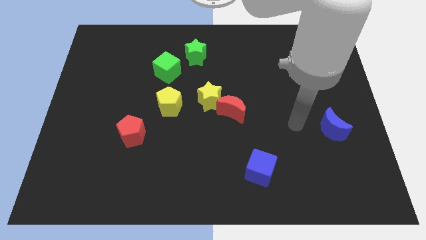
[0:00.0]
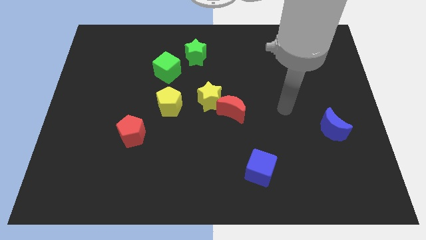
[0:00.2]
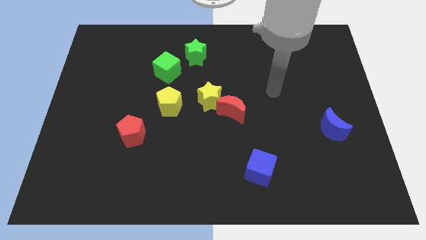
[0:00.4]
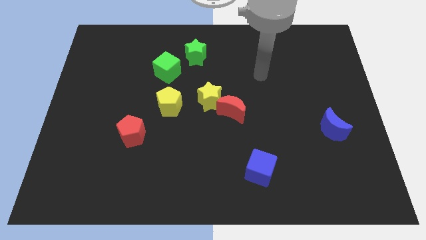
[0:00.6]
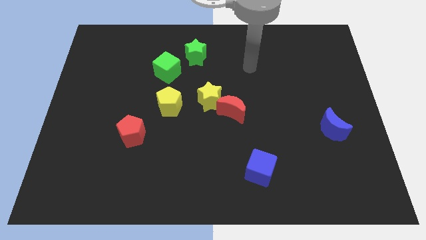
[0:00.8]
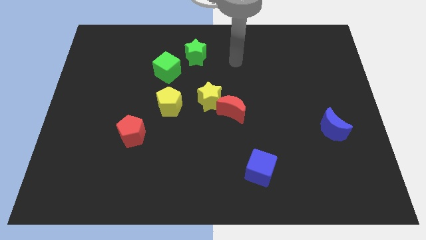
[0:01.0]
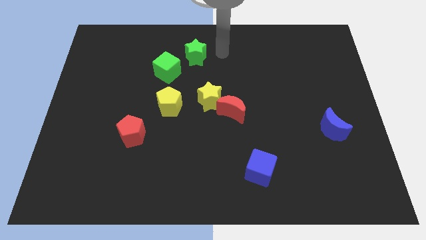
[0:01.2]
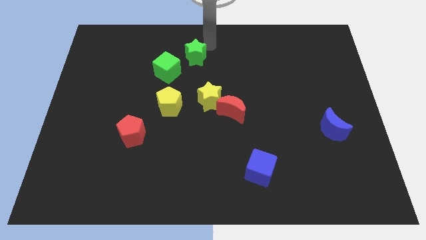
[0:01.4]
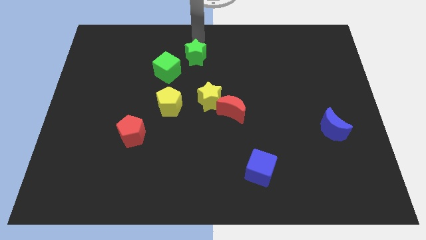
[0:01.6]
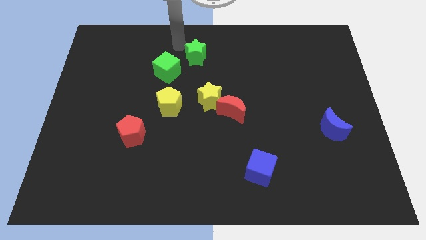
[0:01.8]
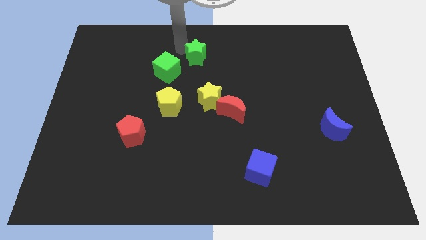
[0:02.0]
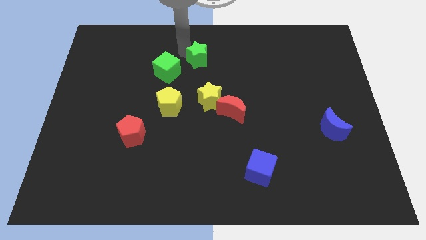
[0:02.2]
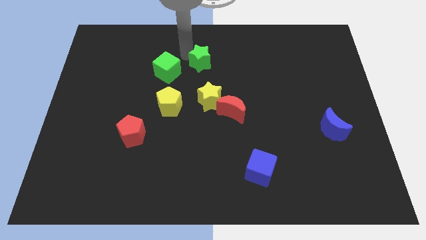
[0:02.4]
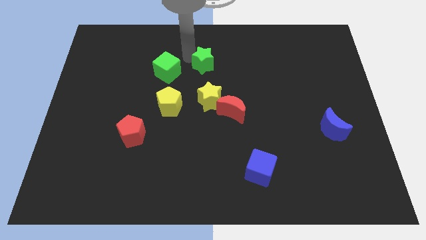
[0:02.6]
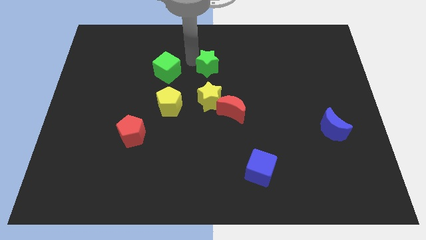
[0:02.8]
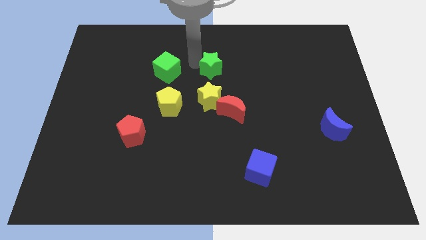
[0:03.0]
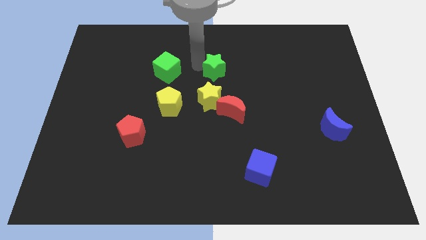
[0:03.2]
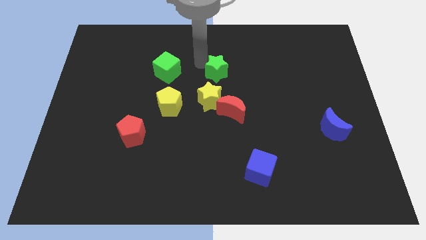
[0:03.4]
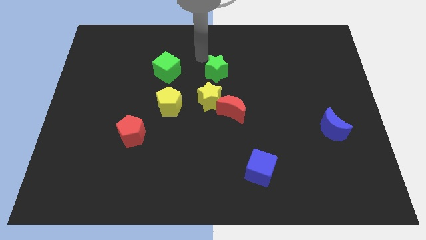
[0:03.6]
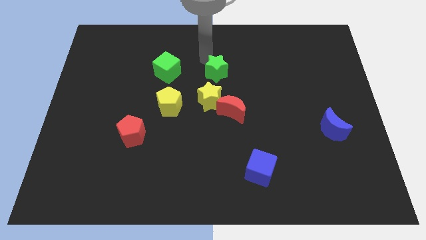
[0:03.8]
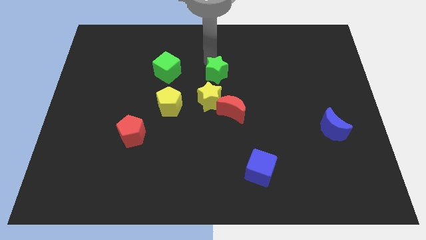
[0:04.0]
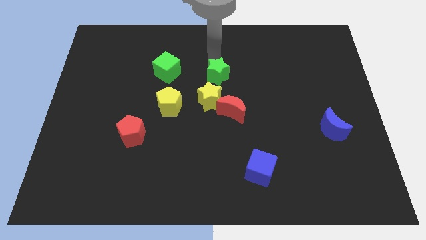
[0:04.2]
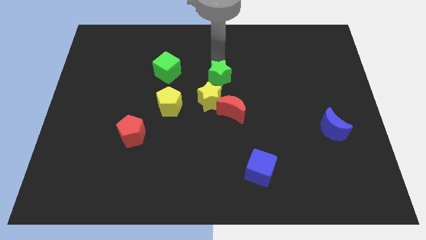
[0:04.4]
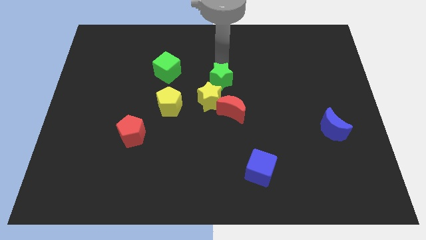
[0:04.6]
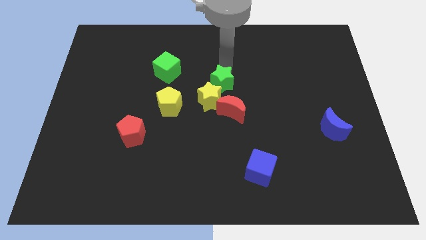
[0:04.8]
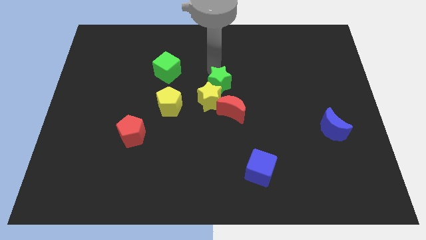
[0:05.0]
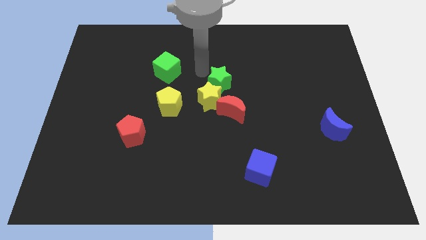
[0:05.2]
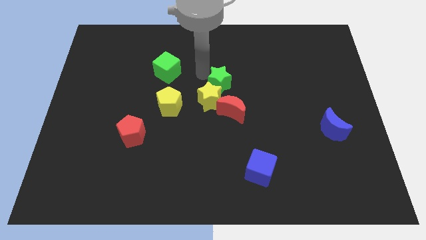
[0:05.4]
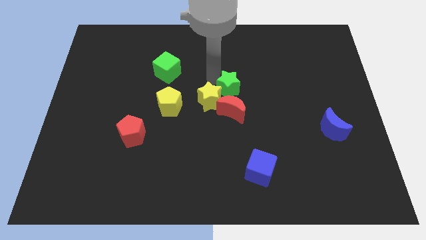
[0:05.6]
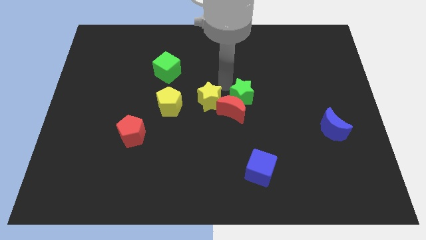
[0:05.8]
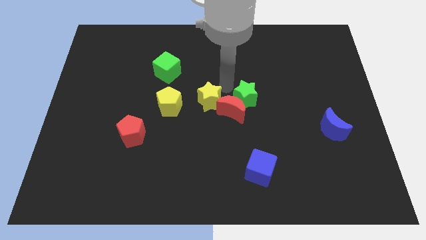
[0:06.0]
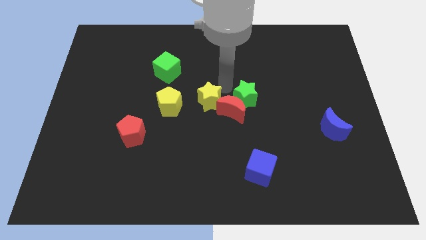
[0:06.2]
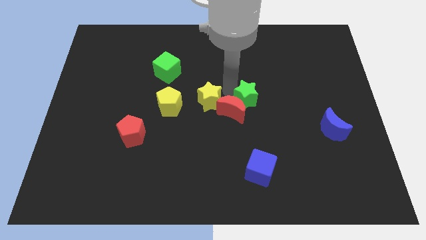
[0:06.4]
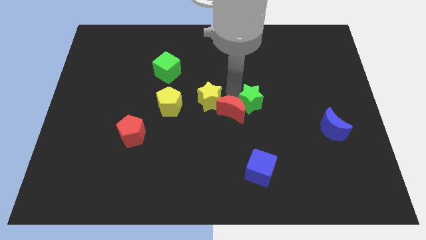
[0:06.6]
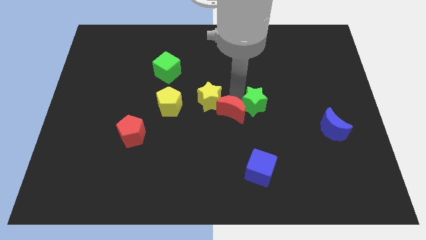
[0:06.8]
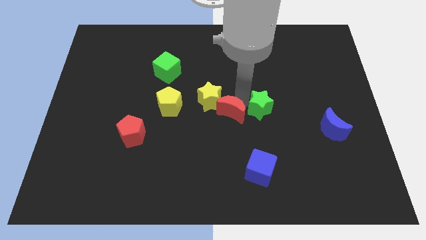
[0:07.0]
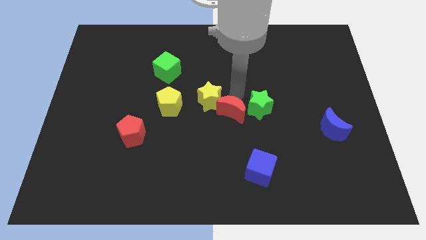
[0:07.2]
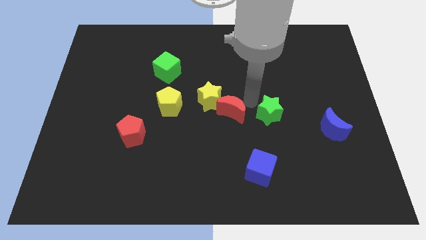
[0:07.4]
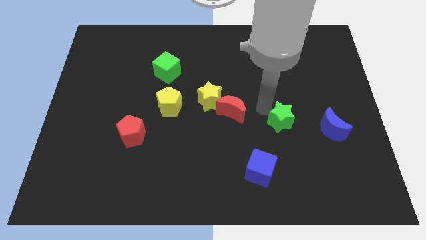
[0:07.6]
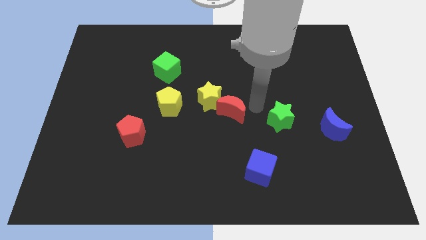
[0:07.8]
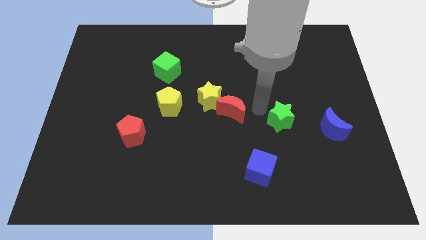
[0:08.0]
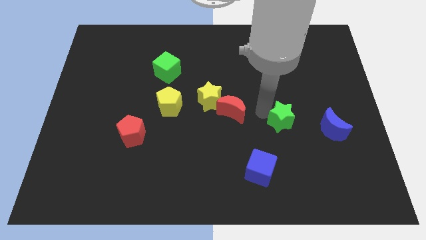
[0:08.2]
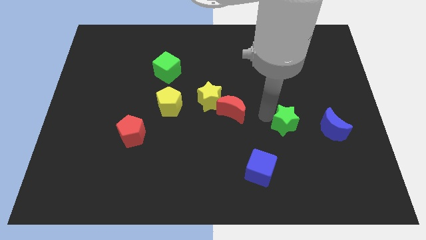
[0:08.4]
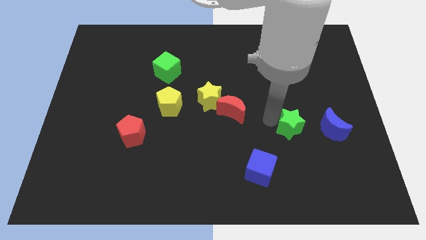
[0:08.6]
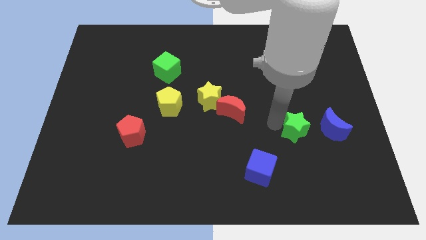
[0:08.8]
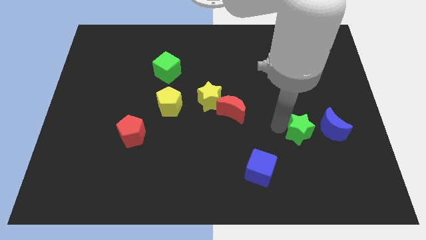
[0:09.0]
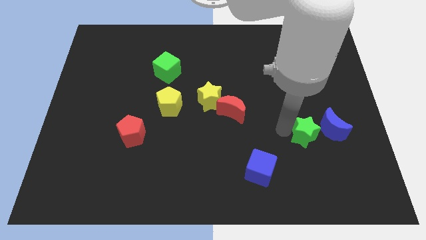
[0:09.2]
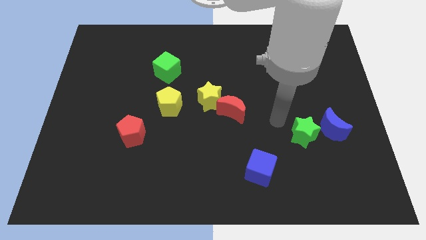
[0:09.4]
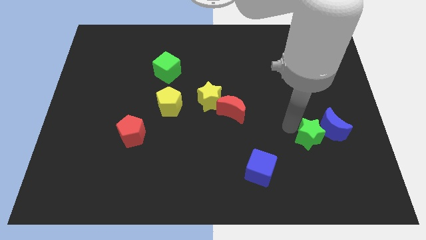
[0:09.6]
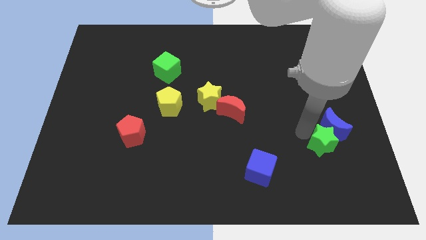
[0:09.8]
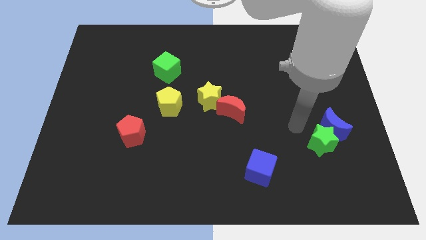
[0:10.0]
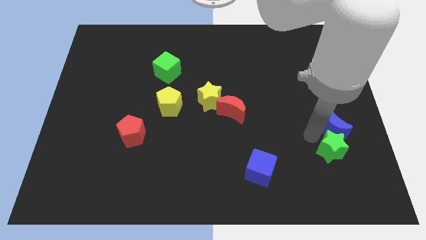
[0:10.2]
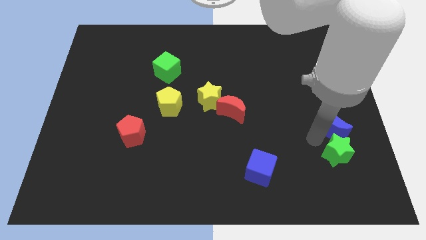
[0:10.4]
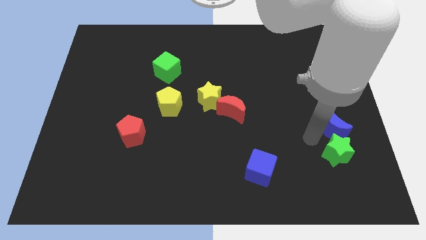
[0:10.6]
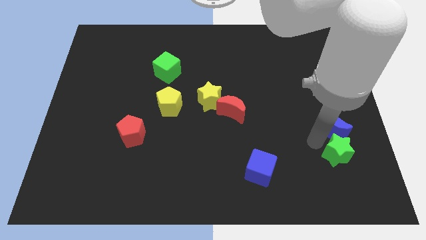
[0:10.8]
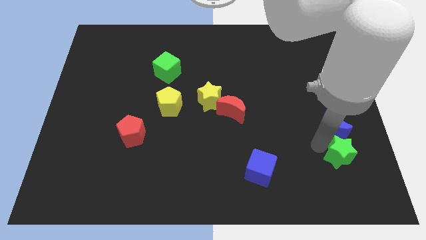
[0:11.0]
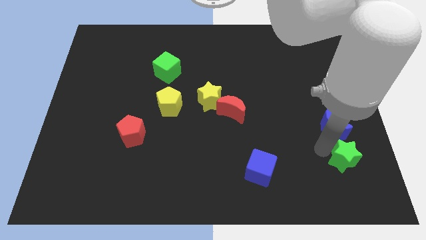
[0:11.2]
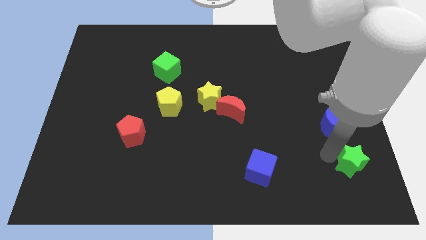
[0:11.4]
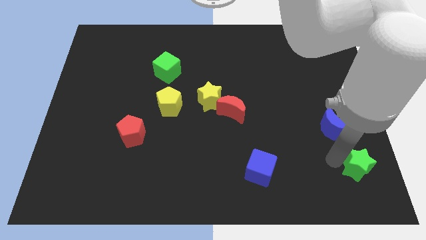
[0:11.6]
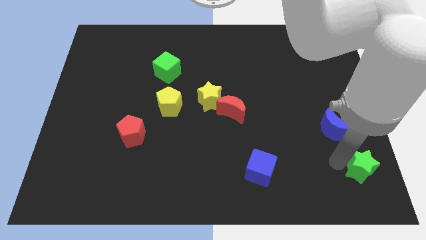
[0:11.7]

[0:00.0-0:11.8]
slide the green star to the bottom right of the board
